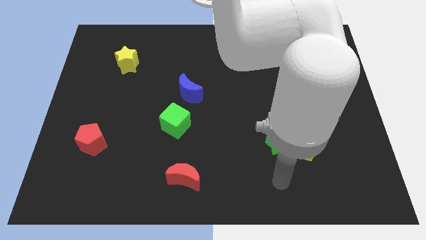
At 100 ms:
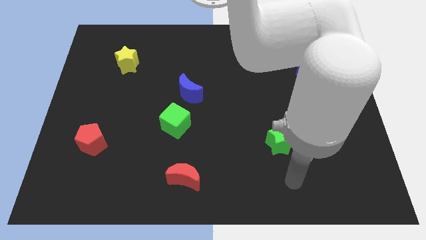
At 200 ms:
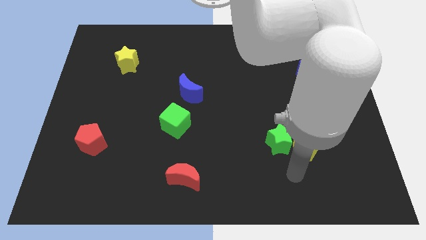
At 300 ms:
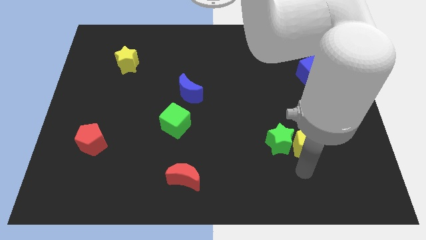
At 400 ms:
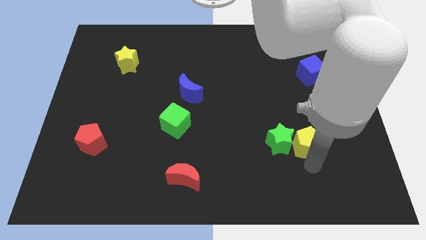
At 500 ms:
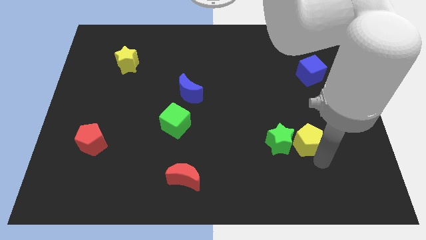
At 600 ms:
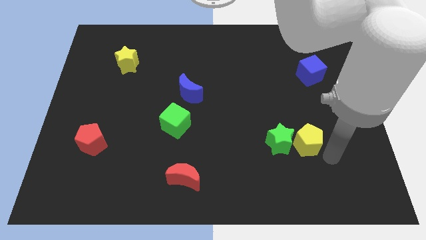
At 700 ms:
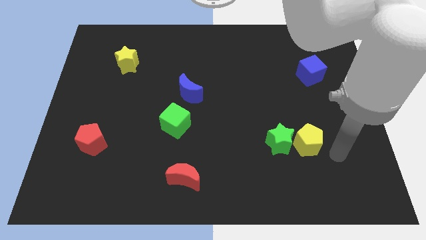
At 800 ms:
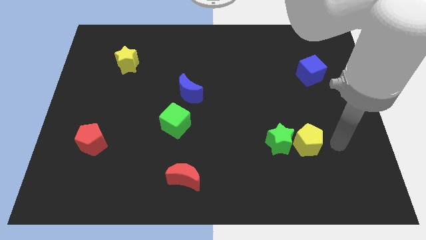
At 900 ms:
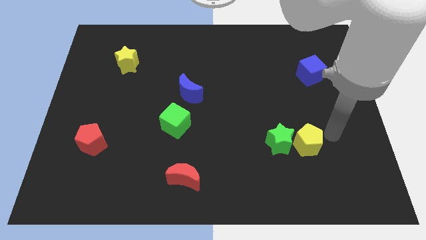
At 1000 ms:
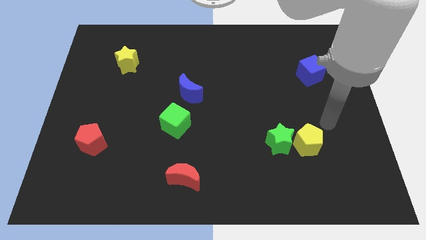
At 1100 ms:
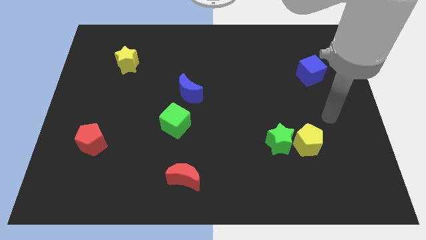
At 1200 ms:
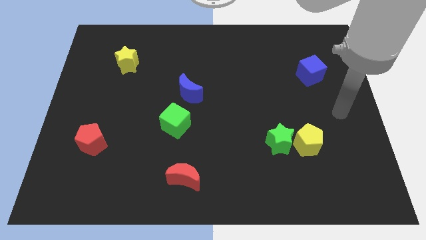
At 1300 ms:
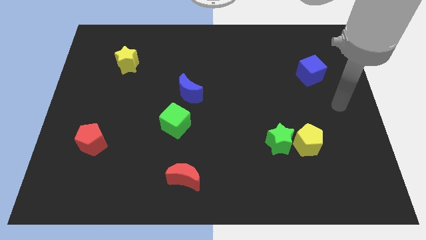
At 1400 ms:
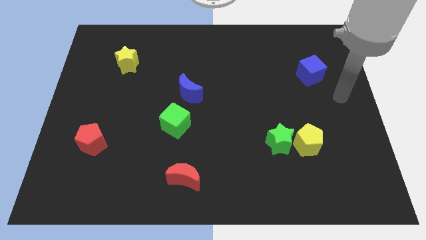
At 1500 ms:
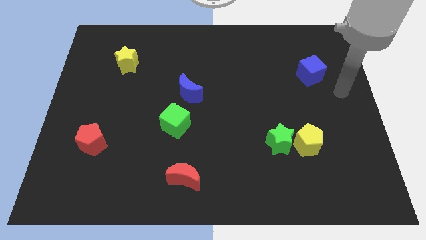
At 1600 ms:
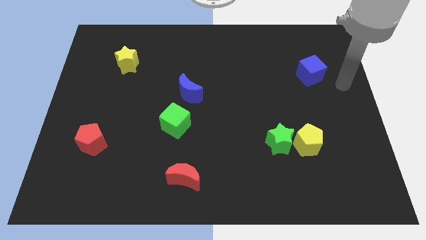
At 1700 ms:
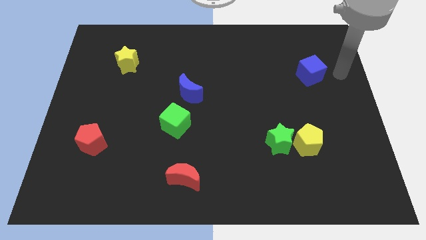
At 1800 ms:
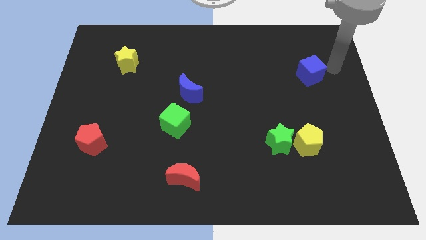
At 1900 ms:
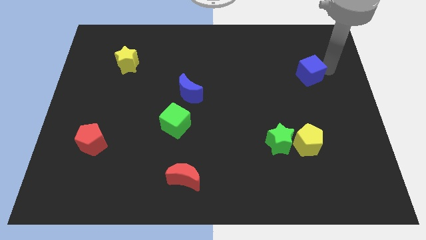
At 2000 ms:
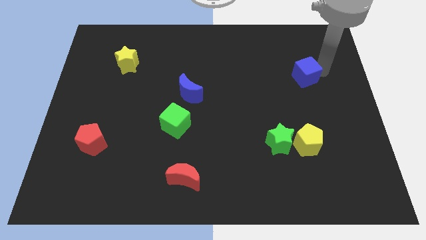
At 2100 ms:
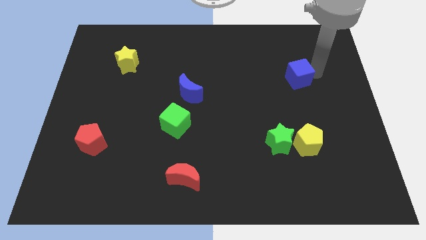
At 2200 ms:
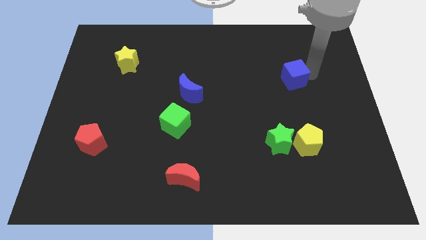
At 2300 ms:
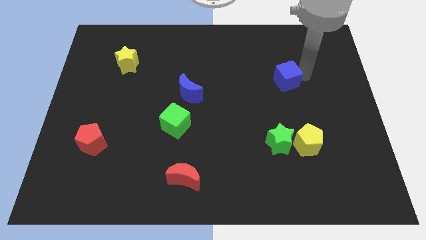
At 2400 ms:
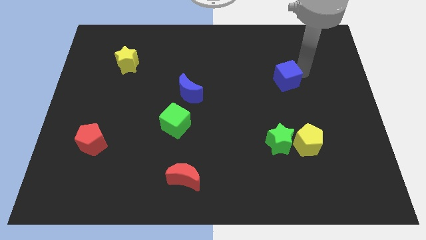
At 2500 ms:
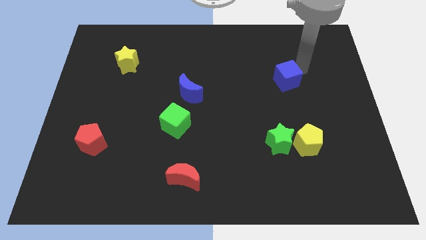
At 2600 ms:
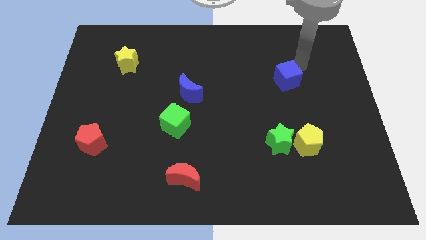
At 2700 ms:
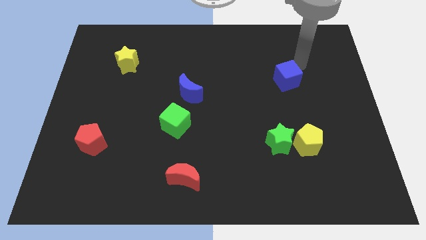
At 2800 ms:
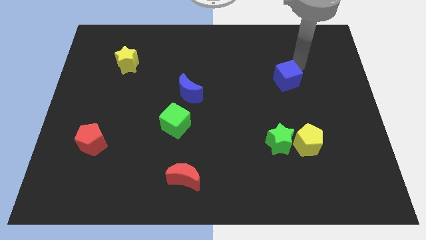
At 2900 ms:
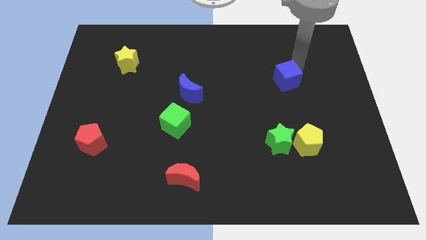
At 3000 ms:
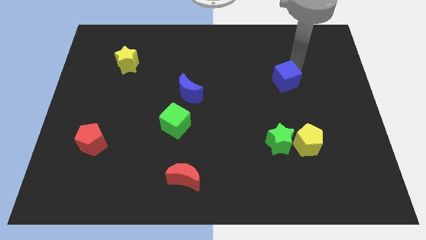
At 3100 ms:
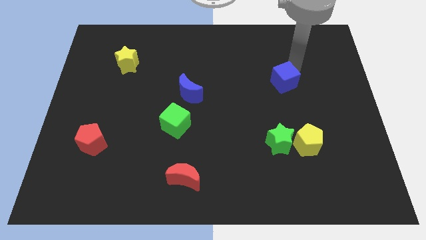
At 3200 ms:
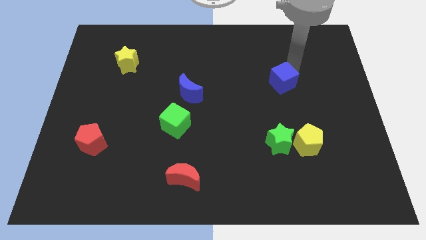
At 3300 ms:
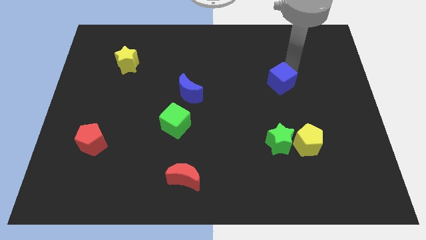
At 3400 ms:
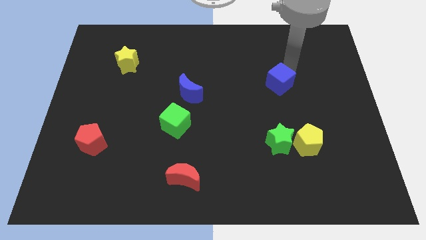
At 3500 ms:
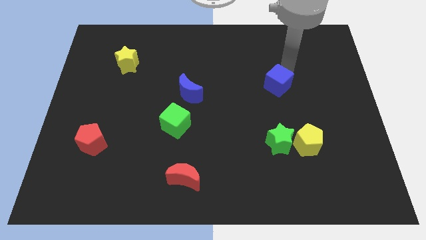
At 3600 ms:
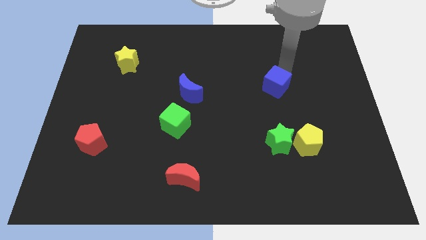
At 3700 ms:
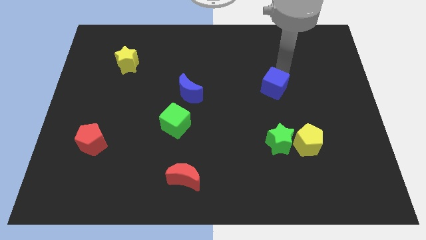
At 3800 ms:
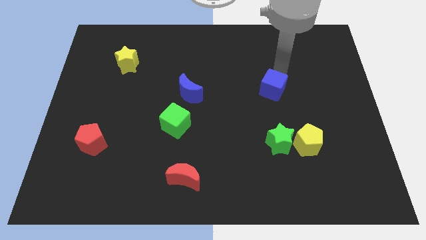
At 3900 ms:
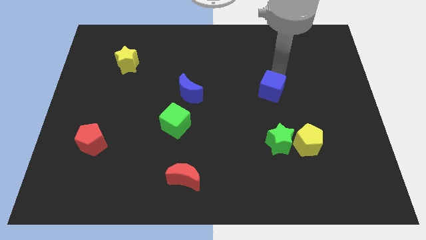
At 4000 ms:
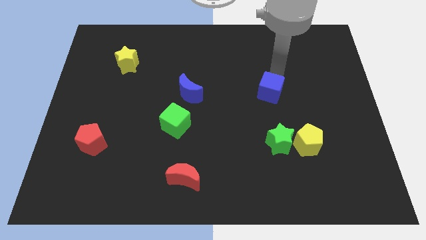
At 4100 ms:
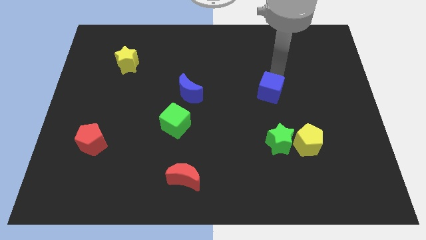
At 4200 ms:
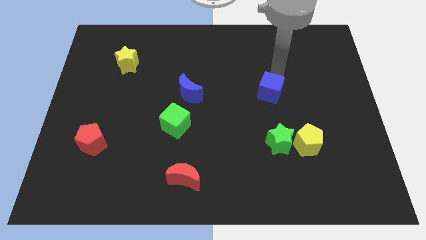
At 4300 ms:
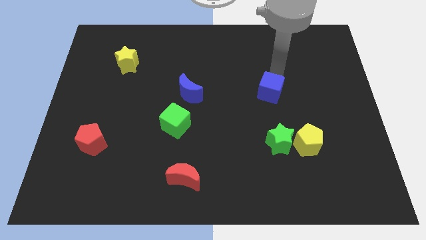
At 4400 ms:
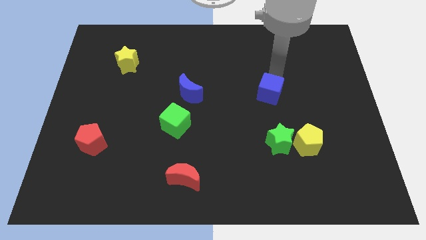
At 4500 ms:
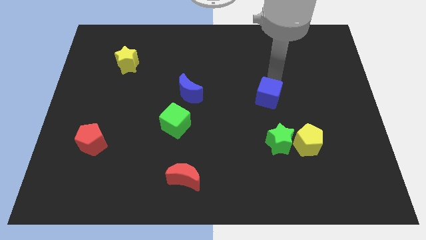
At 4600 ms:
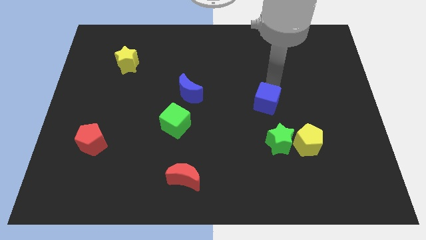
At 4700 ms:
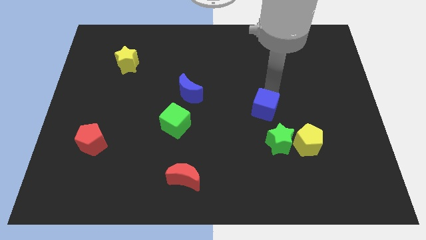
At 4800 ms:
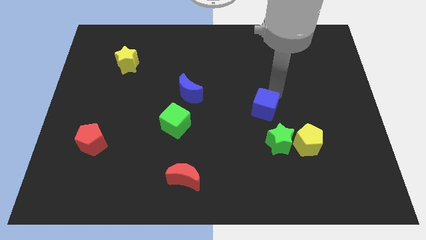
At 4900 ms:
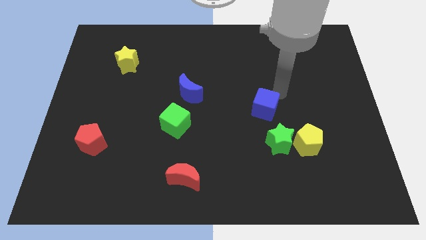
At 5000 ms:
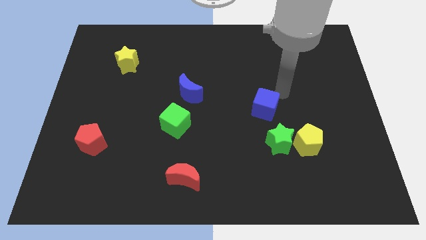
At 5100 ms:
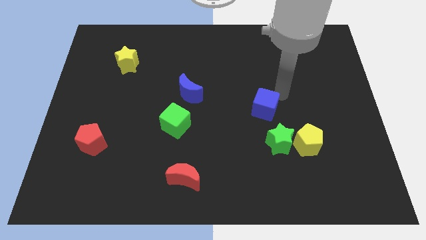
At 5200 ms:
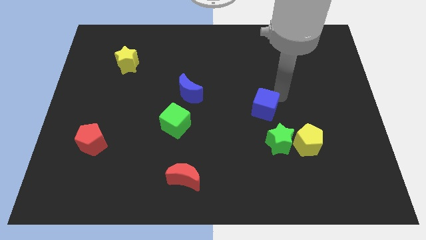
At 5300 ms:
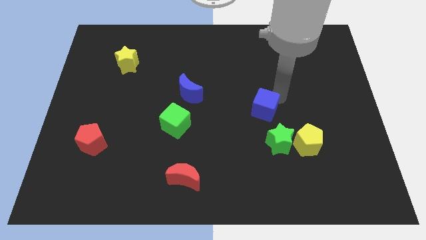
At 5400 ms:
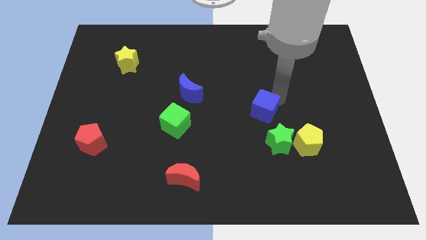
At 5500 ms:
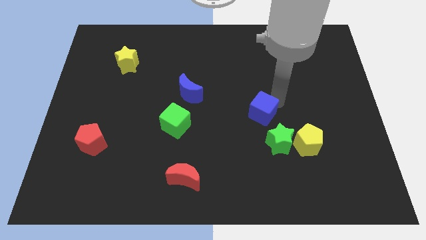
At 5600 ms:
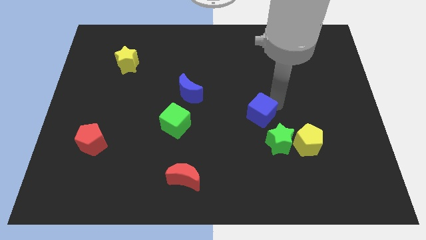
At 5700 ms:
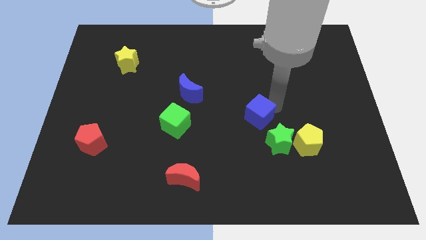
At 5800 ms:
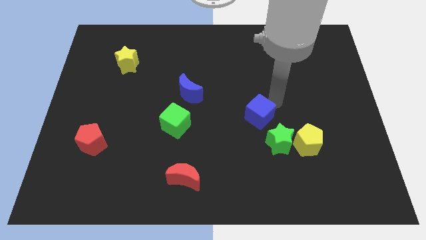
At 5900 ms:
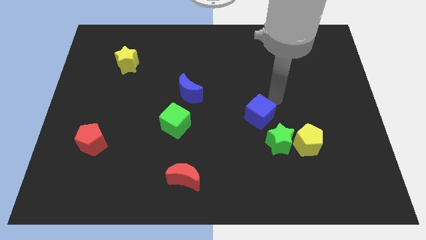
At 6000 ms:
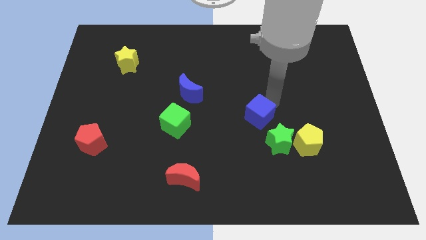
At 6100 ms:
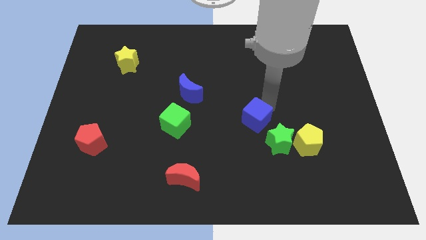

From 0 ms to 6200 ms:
slide the blue cube down and to the left

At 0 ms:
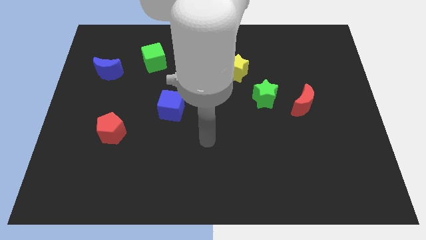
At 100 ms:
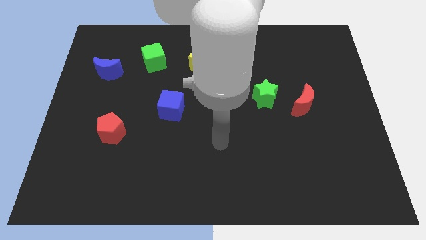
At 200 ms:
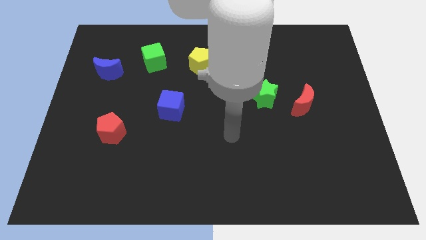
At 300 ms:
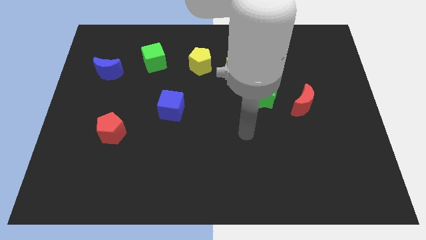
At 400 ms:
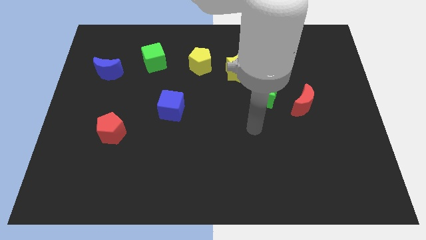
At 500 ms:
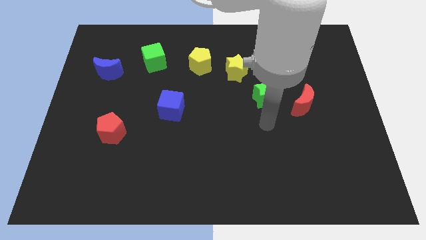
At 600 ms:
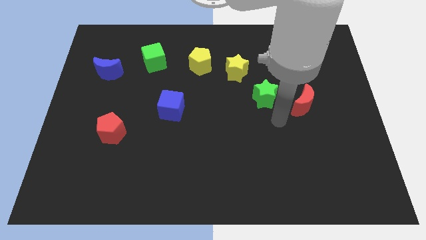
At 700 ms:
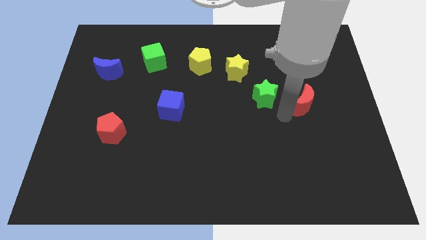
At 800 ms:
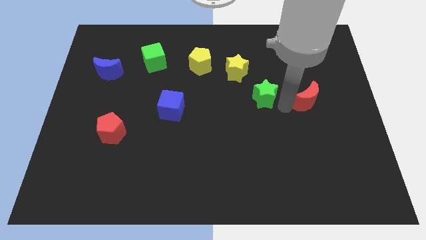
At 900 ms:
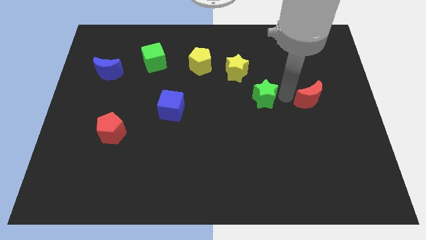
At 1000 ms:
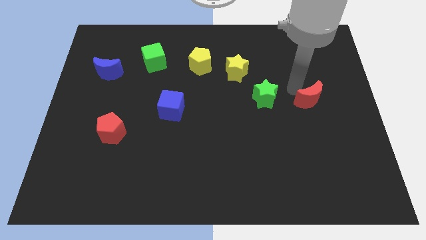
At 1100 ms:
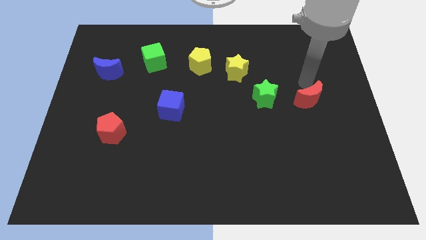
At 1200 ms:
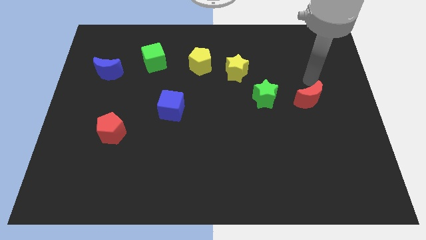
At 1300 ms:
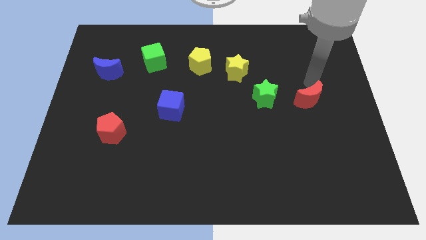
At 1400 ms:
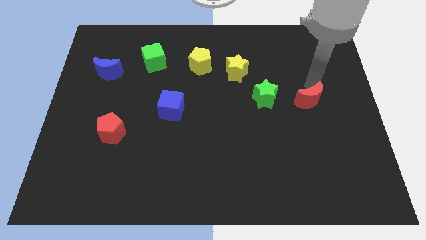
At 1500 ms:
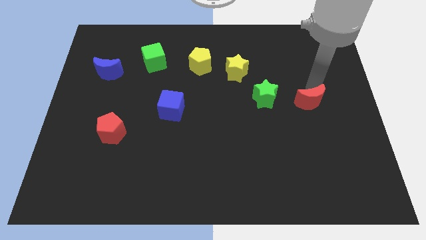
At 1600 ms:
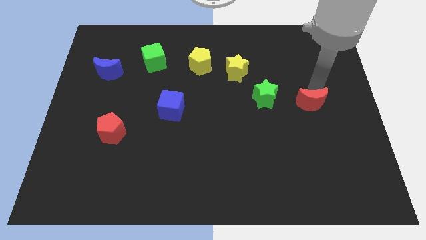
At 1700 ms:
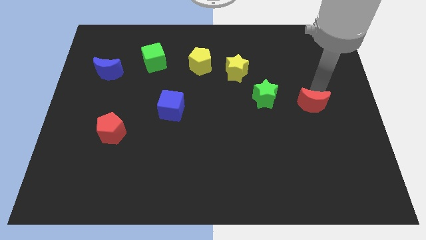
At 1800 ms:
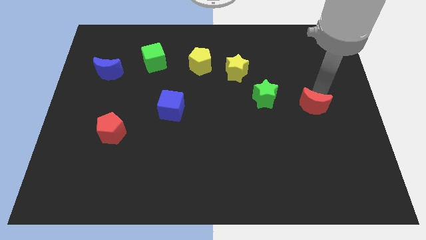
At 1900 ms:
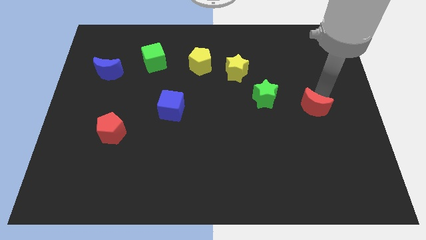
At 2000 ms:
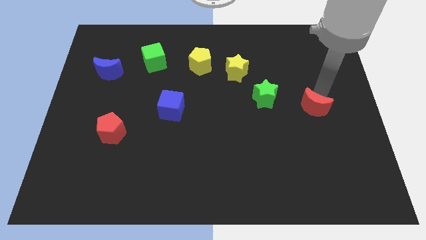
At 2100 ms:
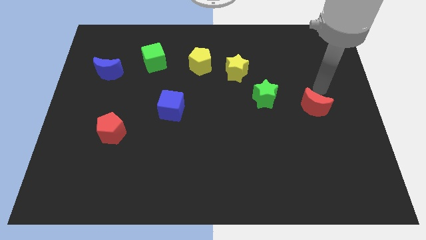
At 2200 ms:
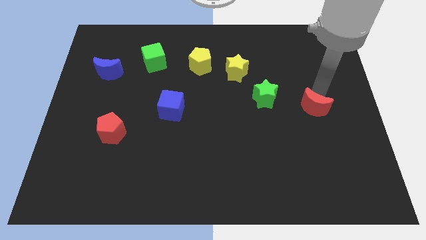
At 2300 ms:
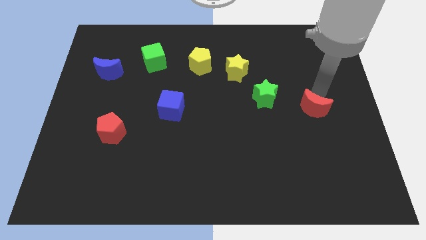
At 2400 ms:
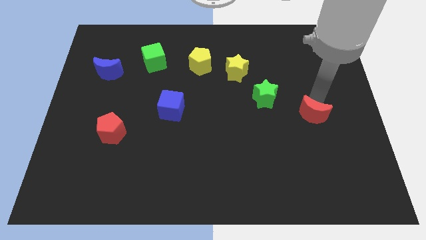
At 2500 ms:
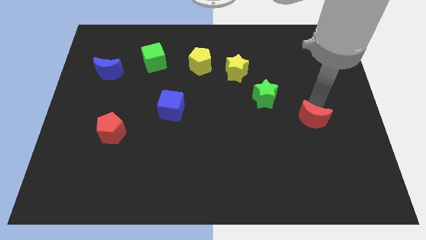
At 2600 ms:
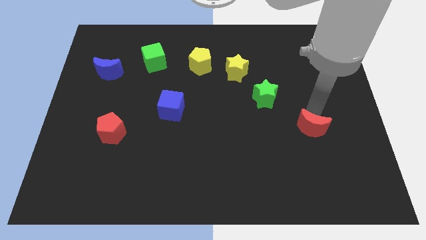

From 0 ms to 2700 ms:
slightly push the red moon down
